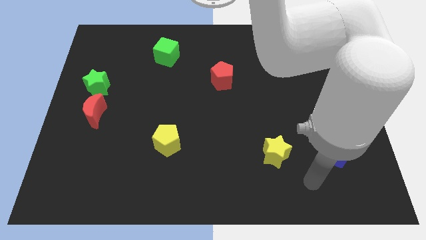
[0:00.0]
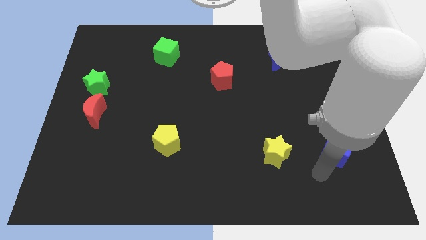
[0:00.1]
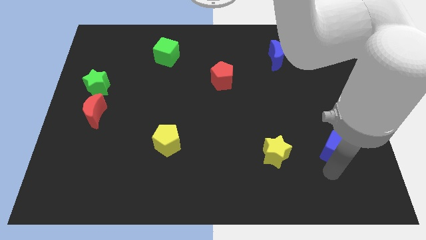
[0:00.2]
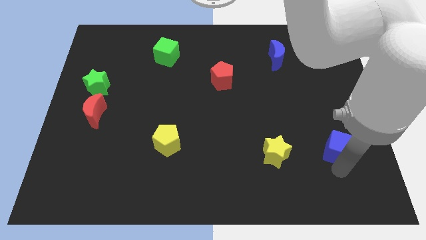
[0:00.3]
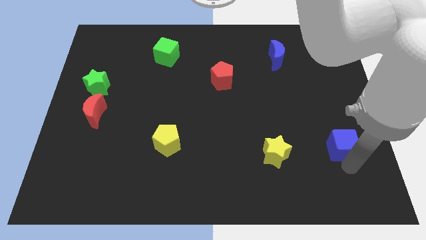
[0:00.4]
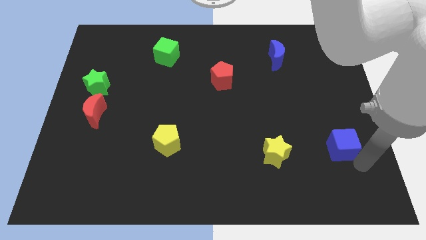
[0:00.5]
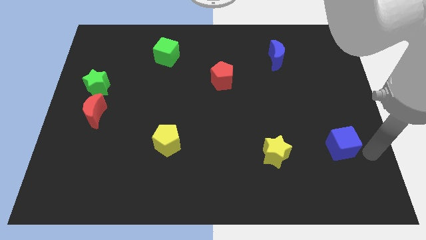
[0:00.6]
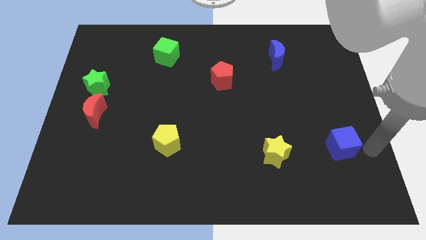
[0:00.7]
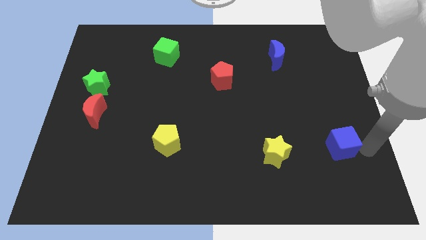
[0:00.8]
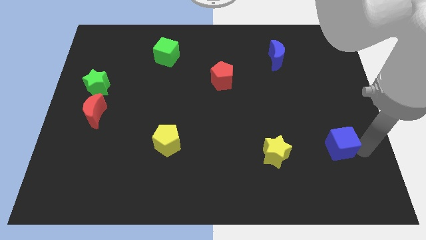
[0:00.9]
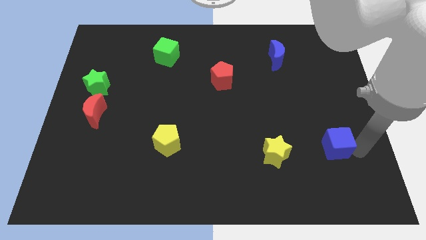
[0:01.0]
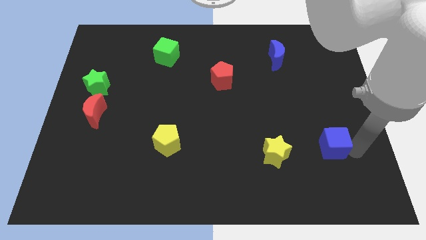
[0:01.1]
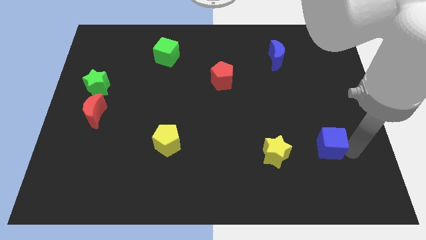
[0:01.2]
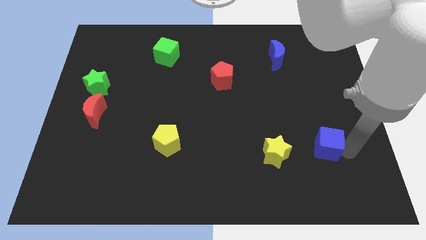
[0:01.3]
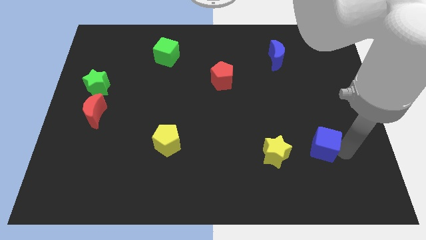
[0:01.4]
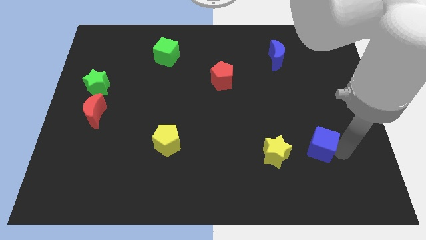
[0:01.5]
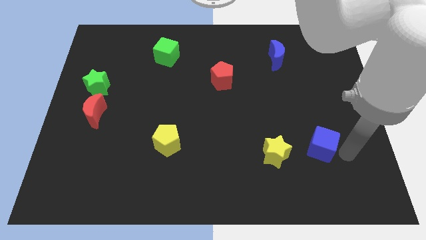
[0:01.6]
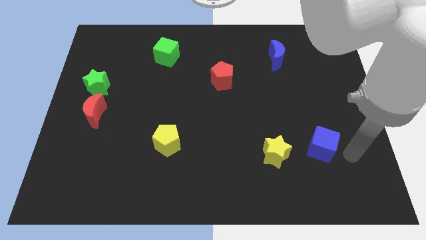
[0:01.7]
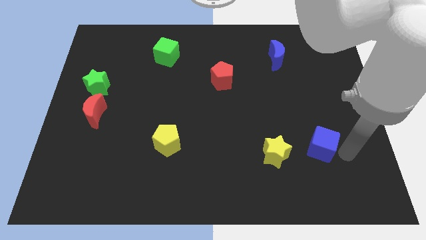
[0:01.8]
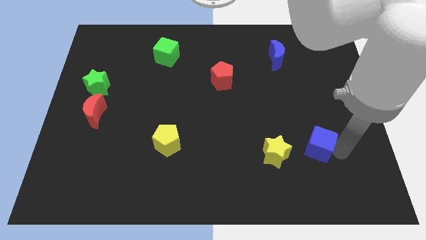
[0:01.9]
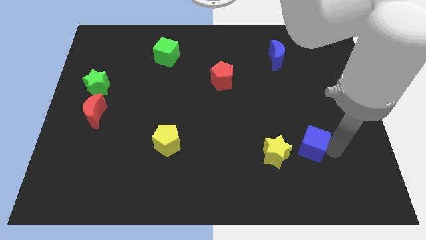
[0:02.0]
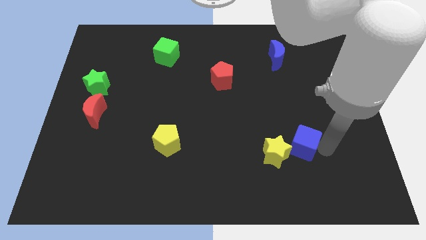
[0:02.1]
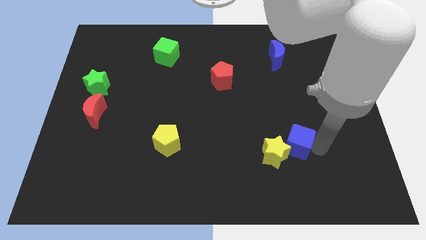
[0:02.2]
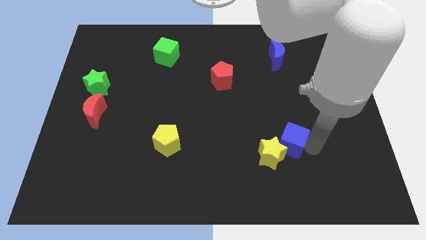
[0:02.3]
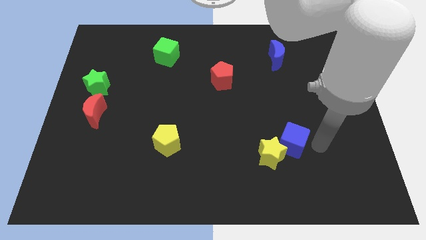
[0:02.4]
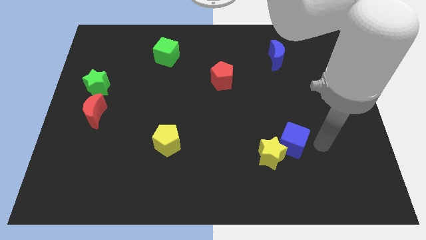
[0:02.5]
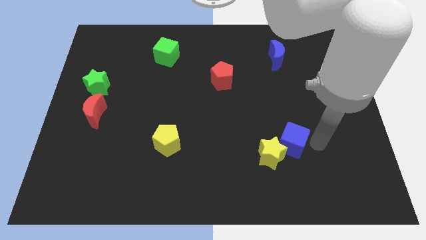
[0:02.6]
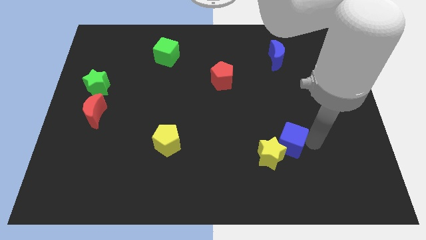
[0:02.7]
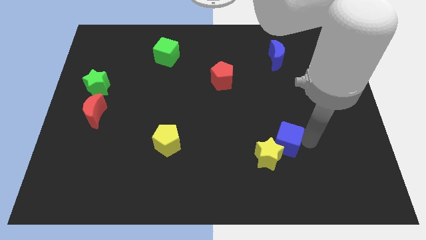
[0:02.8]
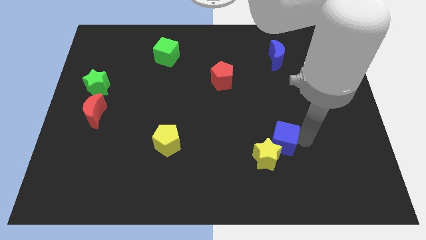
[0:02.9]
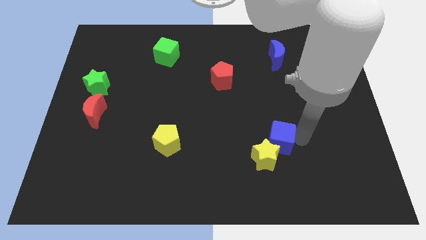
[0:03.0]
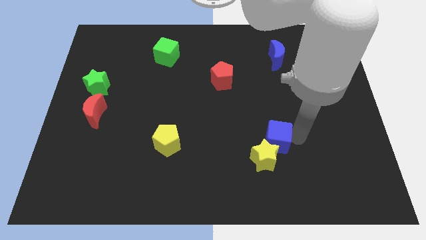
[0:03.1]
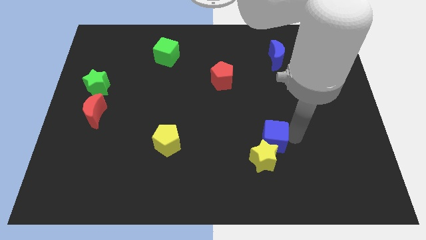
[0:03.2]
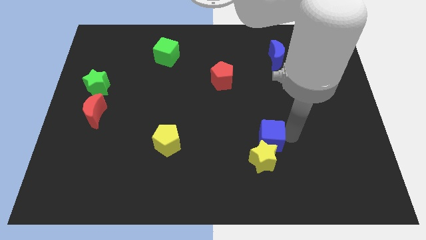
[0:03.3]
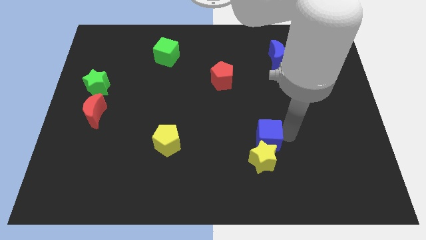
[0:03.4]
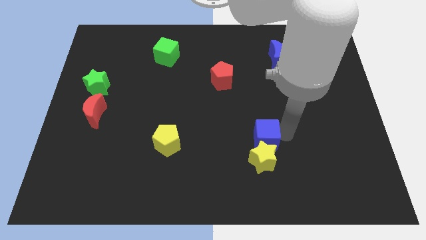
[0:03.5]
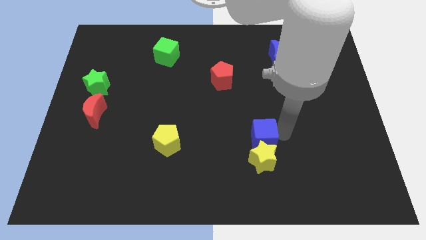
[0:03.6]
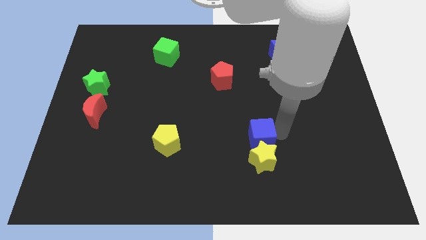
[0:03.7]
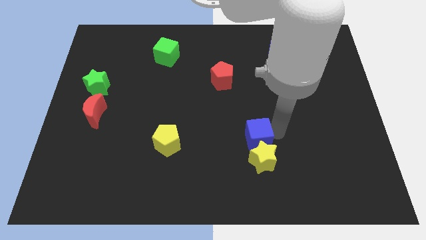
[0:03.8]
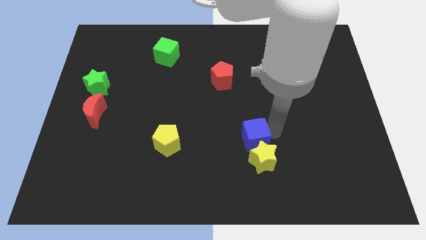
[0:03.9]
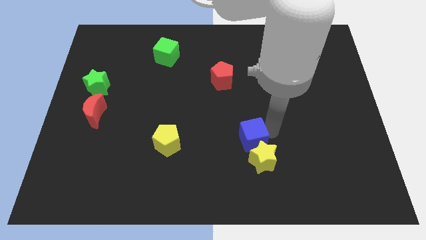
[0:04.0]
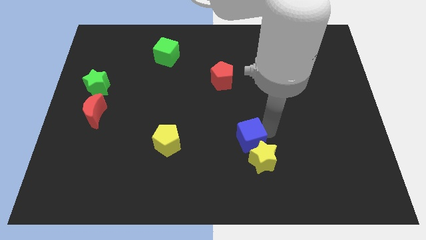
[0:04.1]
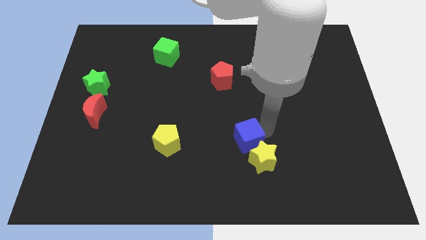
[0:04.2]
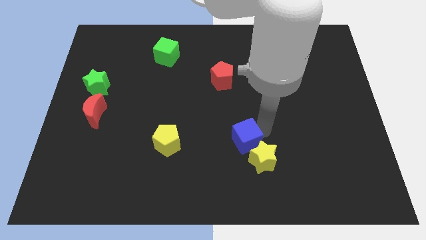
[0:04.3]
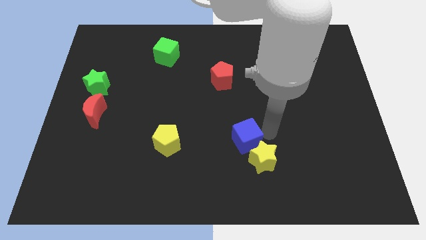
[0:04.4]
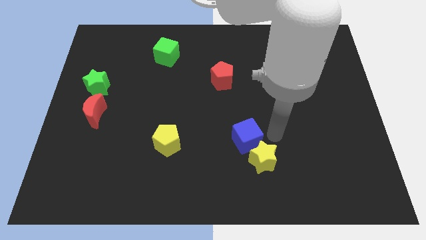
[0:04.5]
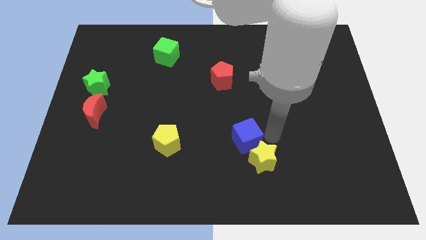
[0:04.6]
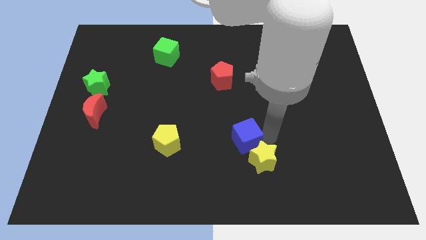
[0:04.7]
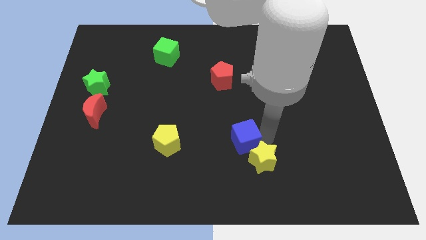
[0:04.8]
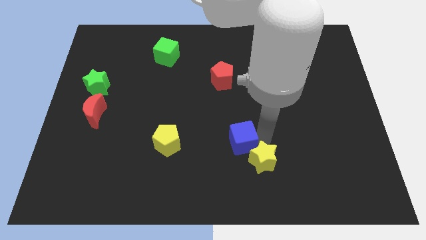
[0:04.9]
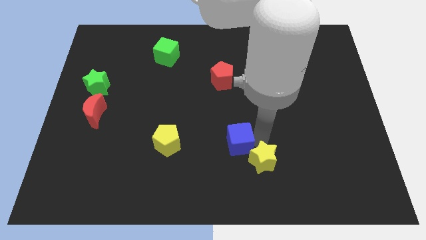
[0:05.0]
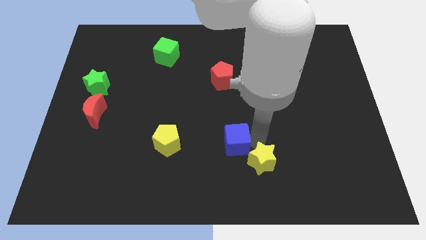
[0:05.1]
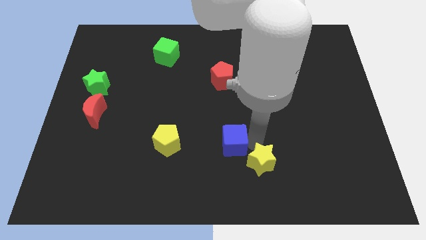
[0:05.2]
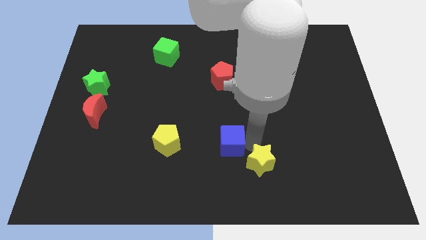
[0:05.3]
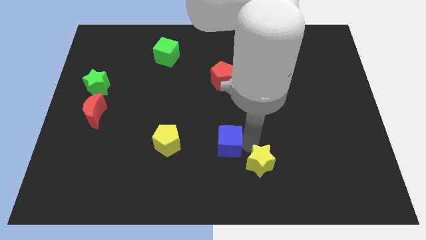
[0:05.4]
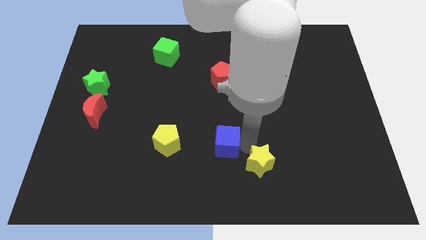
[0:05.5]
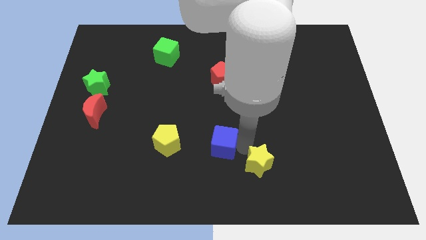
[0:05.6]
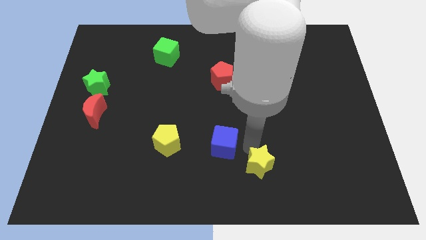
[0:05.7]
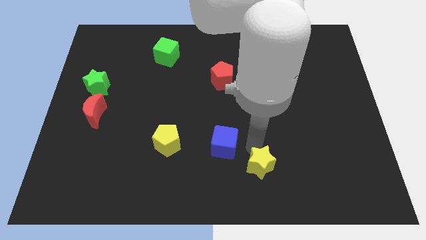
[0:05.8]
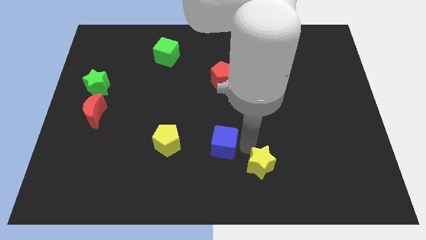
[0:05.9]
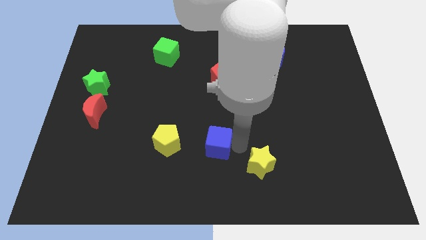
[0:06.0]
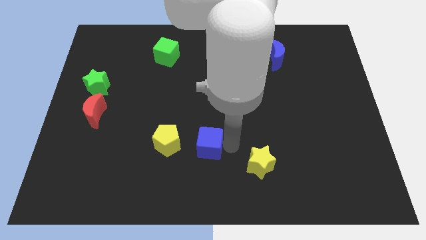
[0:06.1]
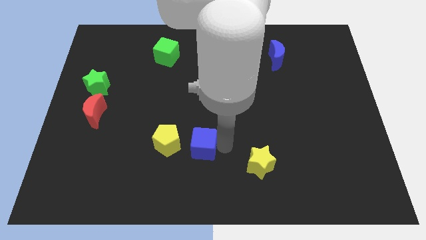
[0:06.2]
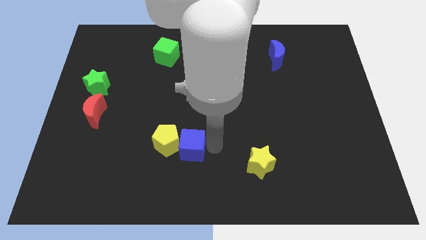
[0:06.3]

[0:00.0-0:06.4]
push the blue cube to the yellow pentagon
